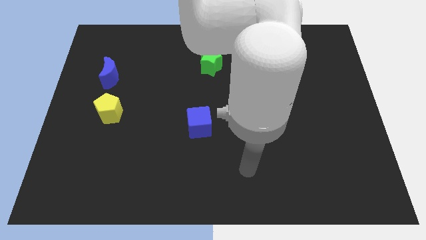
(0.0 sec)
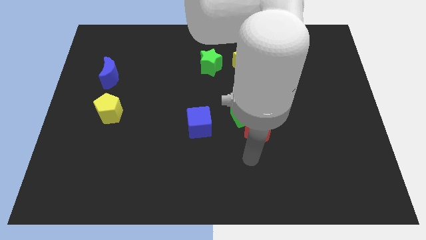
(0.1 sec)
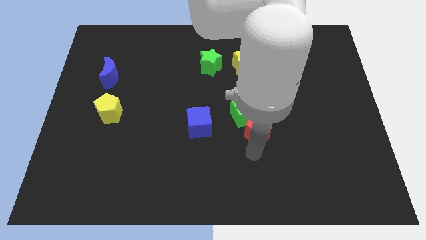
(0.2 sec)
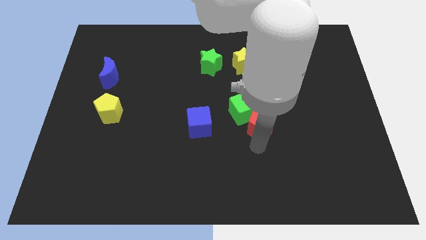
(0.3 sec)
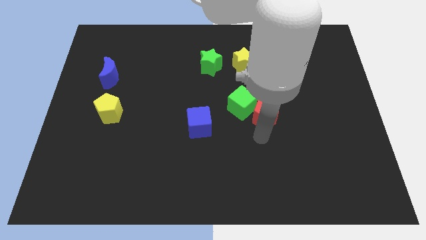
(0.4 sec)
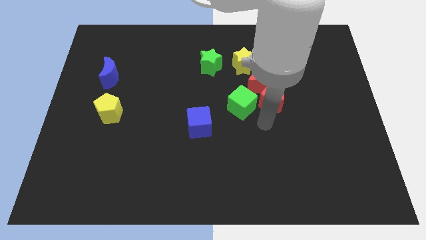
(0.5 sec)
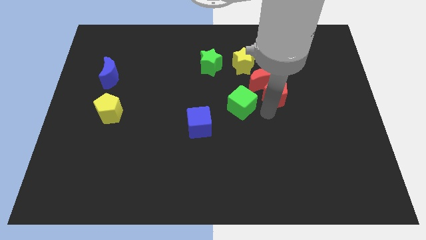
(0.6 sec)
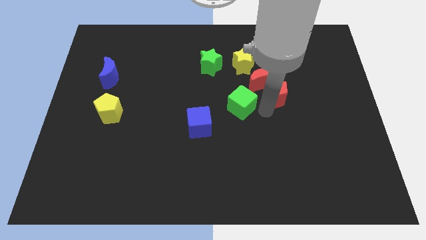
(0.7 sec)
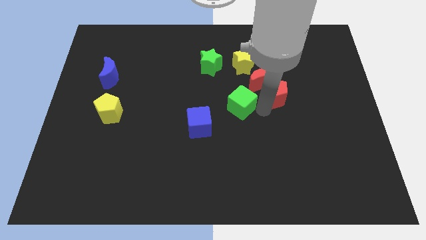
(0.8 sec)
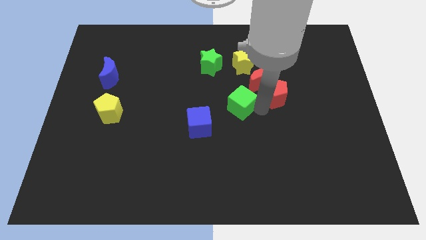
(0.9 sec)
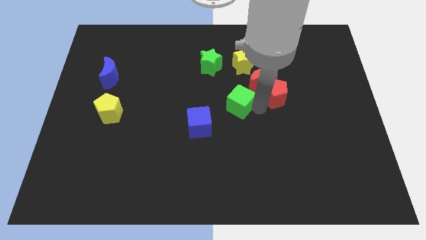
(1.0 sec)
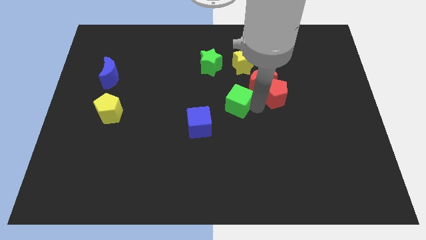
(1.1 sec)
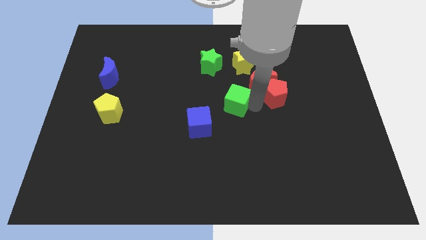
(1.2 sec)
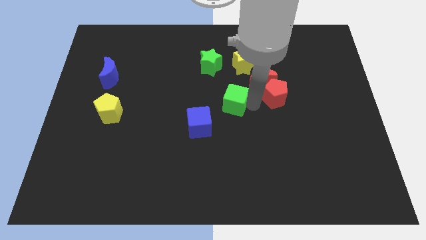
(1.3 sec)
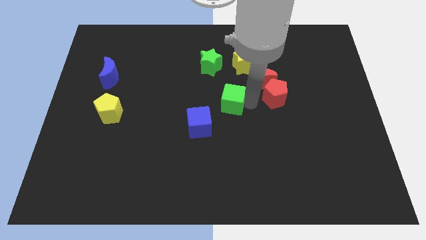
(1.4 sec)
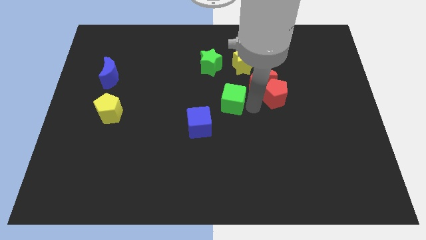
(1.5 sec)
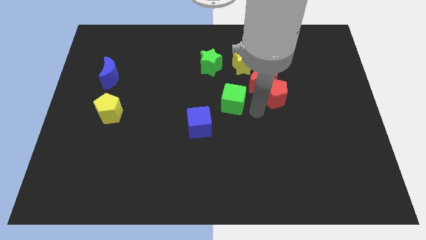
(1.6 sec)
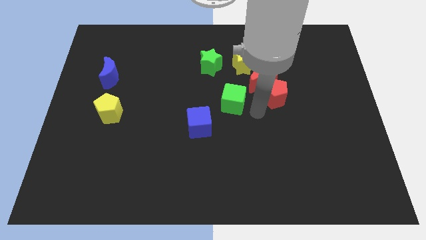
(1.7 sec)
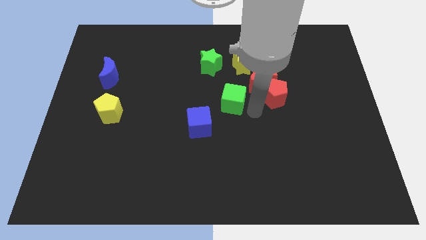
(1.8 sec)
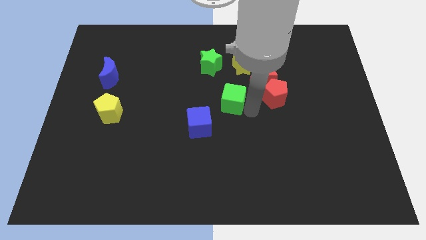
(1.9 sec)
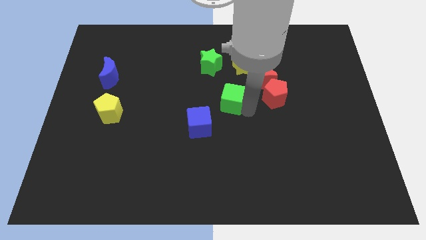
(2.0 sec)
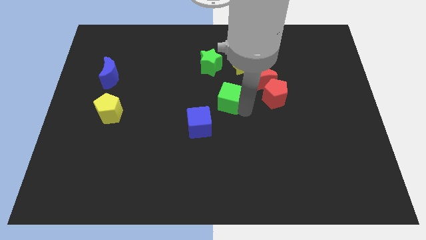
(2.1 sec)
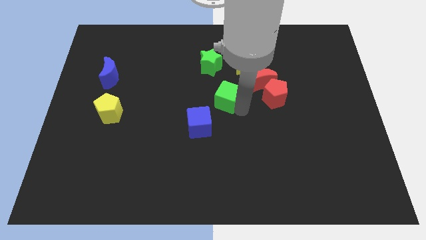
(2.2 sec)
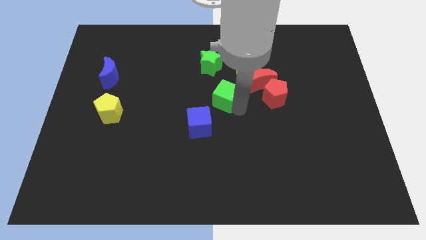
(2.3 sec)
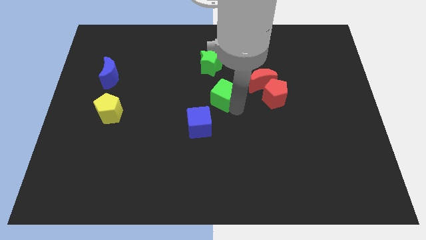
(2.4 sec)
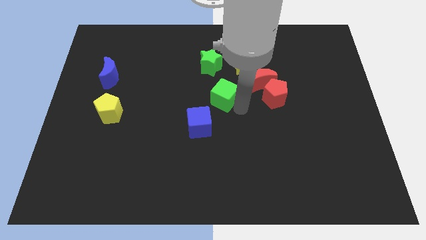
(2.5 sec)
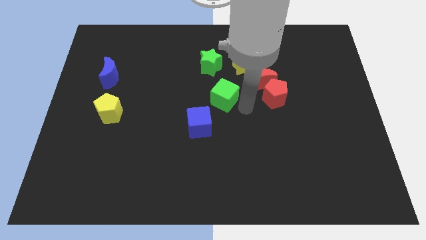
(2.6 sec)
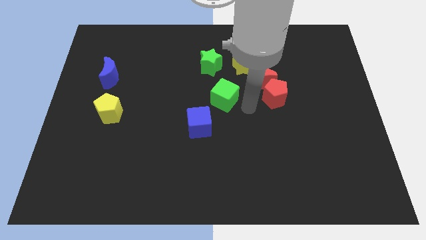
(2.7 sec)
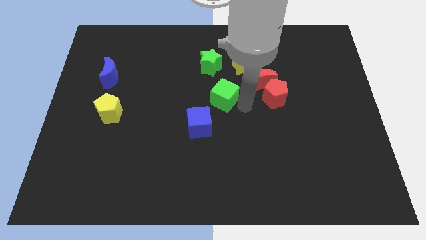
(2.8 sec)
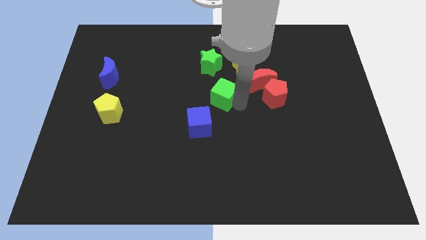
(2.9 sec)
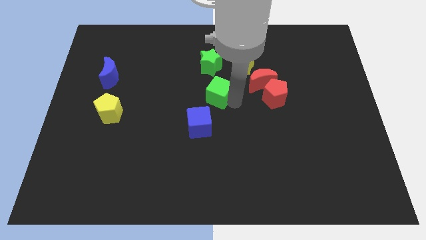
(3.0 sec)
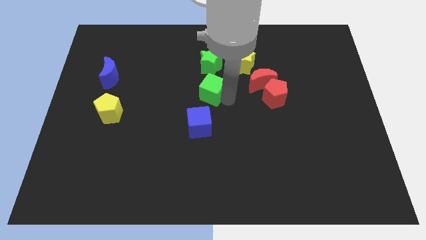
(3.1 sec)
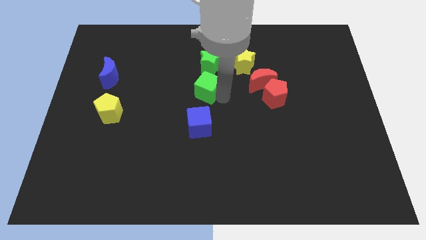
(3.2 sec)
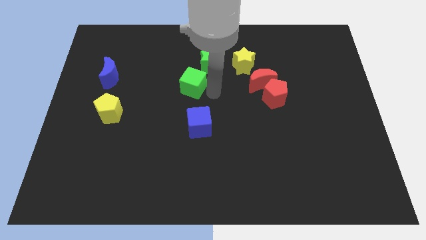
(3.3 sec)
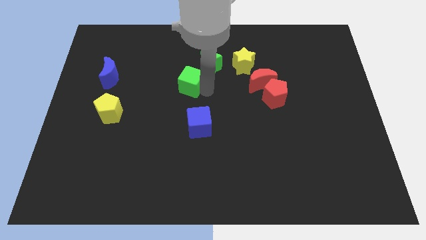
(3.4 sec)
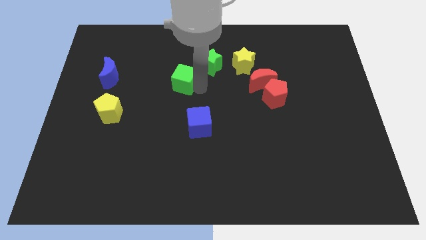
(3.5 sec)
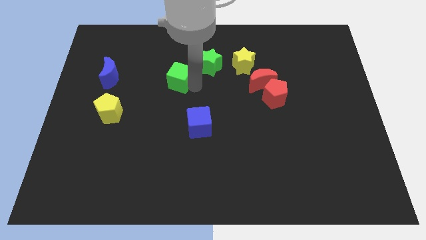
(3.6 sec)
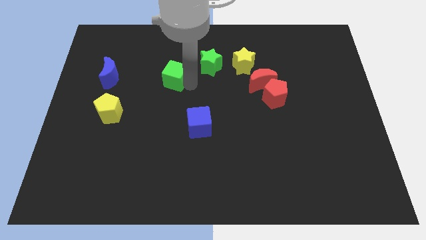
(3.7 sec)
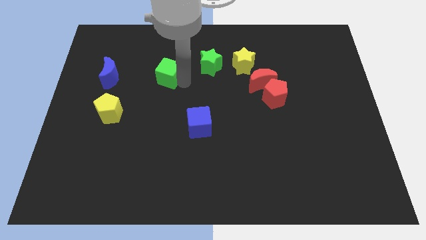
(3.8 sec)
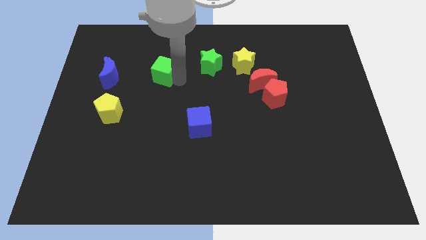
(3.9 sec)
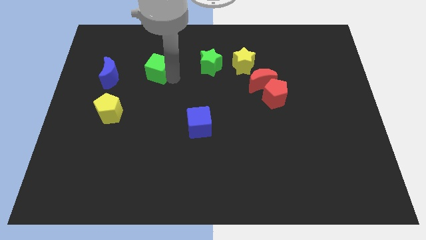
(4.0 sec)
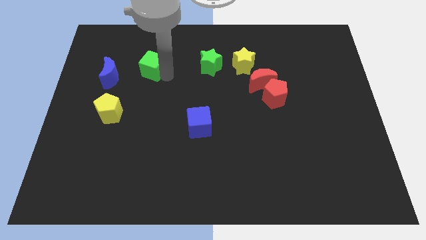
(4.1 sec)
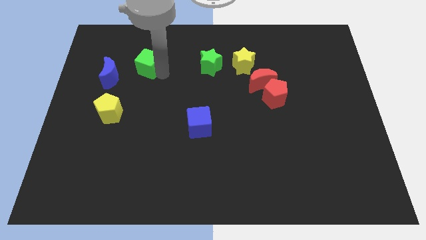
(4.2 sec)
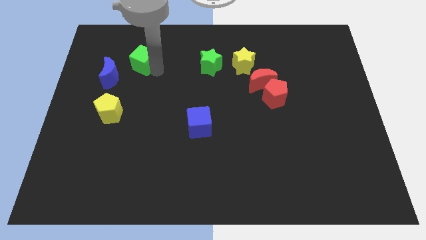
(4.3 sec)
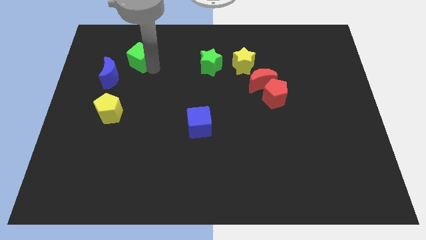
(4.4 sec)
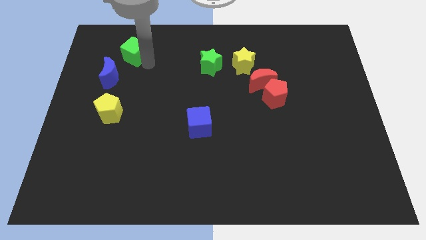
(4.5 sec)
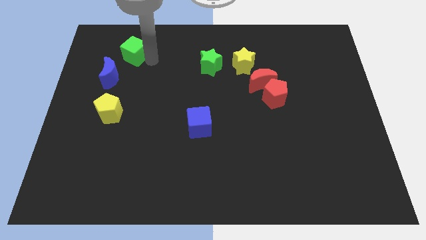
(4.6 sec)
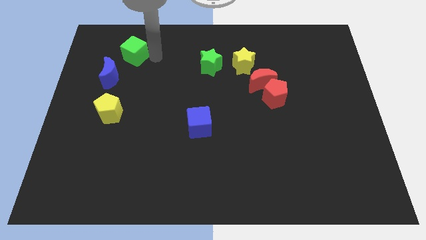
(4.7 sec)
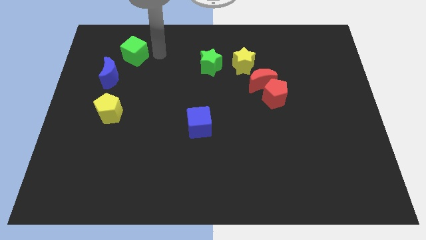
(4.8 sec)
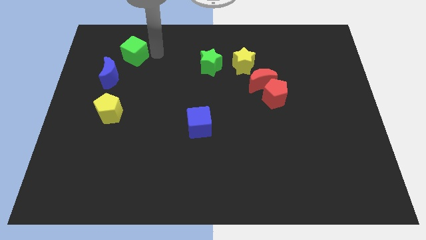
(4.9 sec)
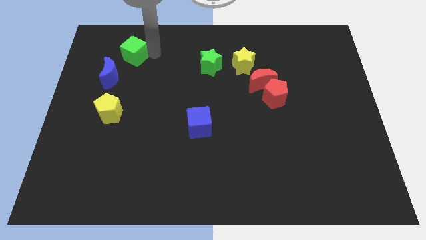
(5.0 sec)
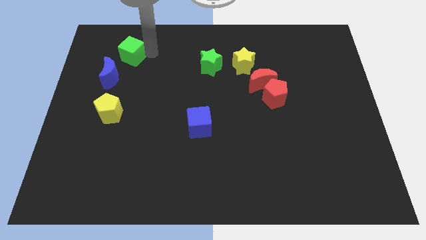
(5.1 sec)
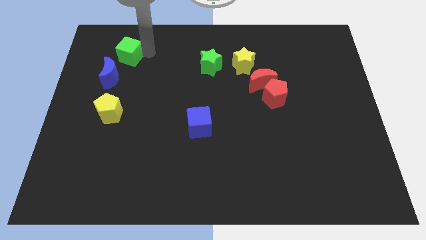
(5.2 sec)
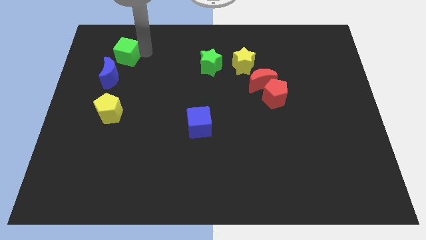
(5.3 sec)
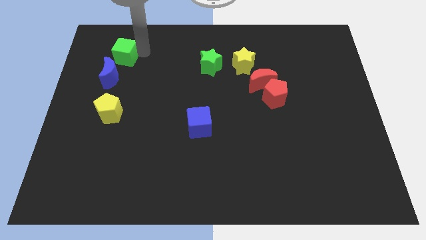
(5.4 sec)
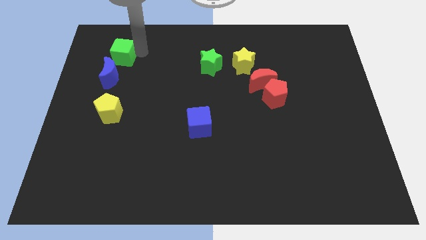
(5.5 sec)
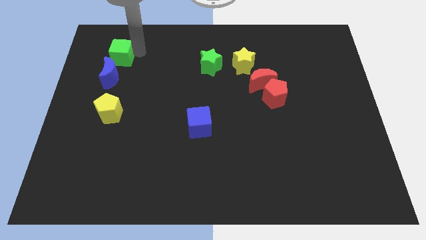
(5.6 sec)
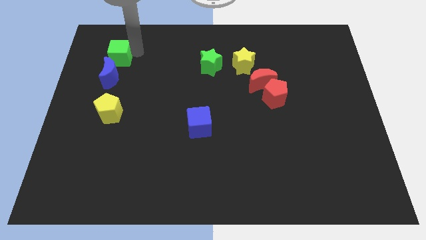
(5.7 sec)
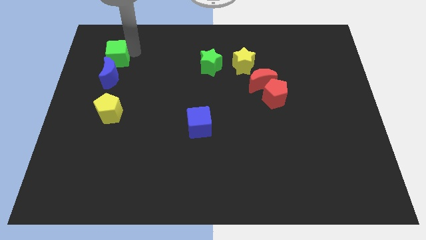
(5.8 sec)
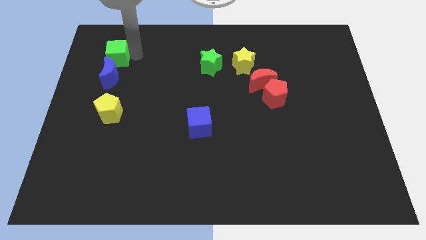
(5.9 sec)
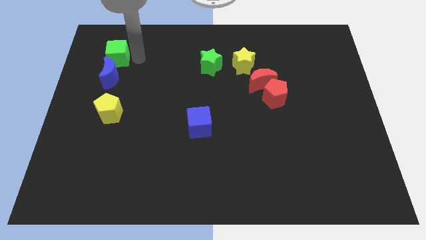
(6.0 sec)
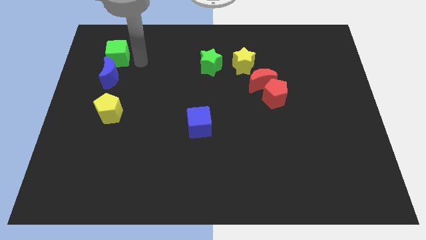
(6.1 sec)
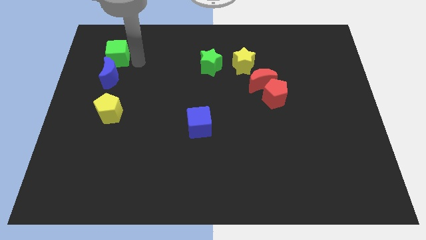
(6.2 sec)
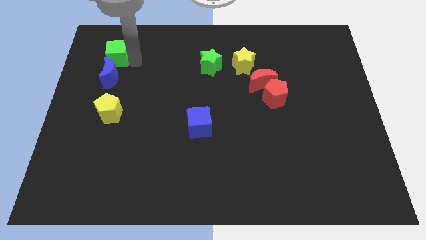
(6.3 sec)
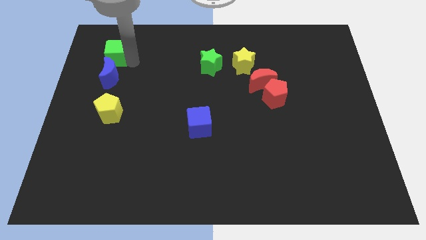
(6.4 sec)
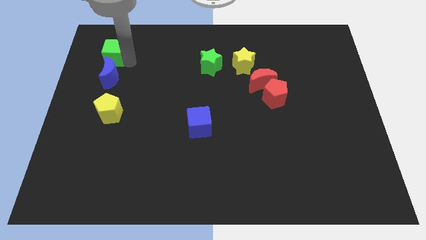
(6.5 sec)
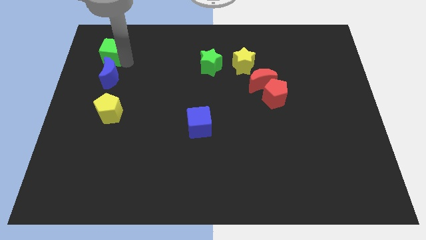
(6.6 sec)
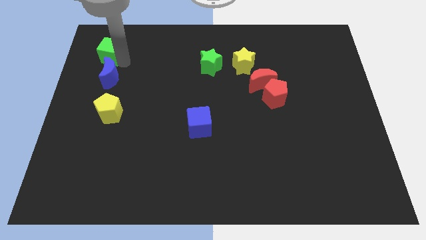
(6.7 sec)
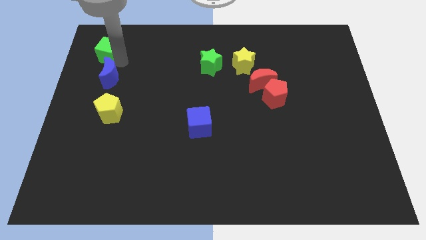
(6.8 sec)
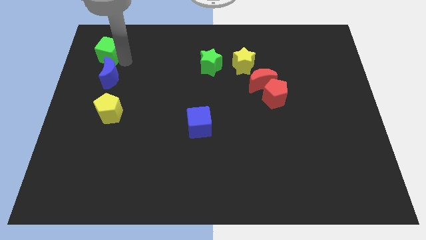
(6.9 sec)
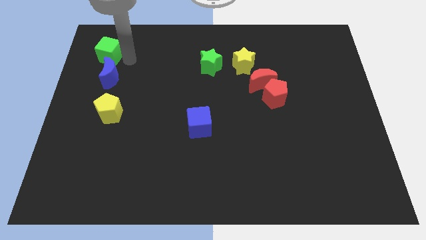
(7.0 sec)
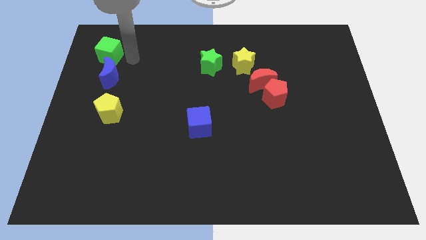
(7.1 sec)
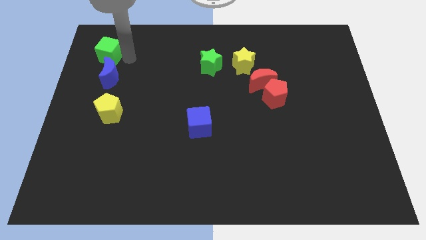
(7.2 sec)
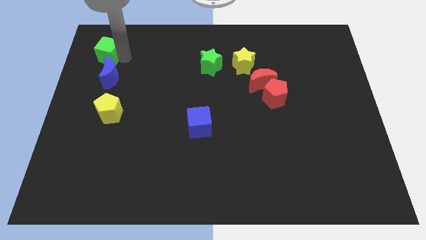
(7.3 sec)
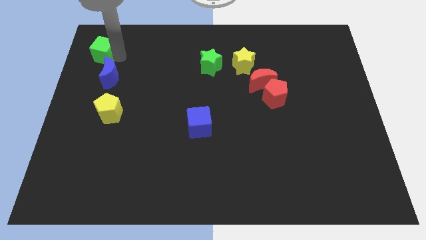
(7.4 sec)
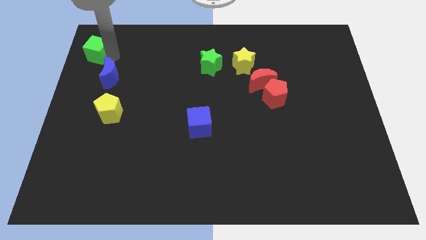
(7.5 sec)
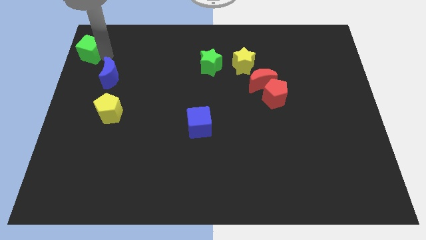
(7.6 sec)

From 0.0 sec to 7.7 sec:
slide the green cube to the top left corner
